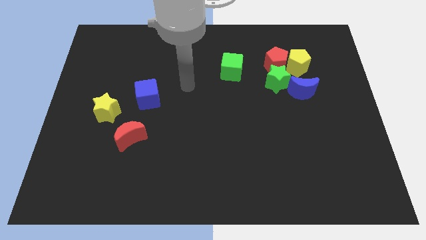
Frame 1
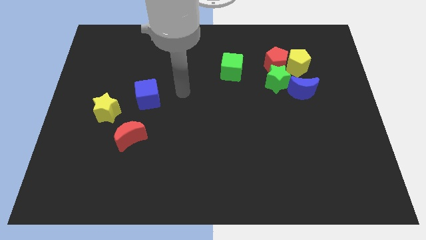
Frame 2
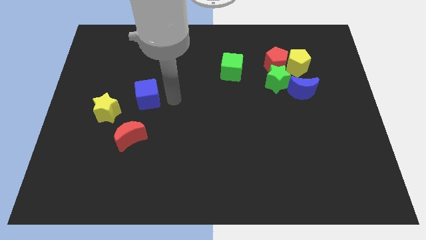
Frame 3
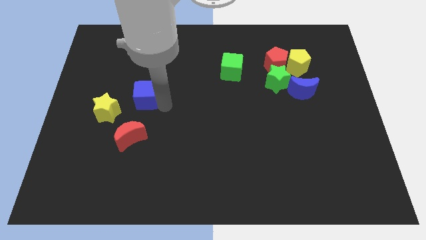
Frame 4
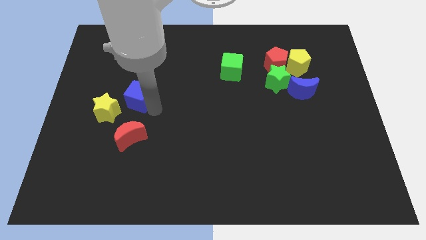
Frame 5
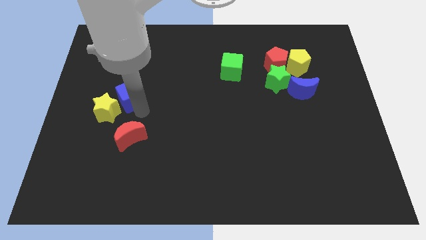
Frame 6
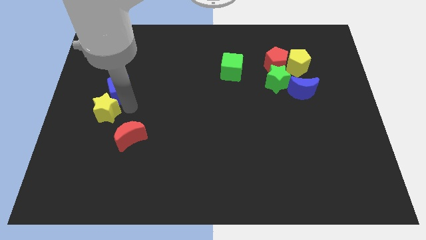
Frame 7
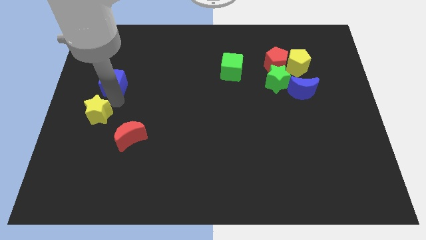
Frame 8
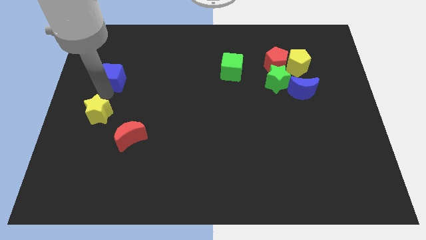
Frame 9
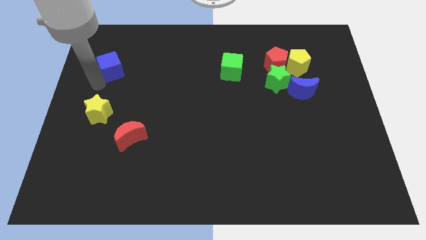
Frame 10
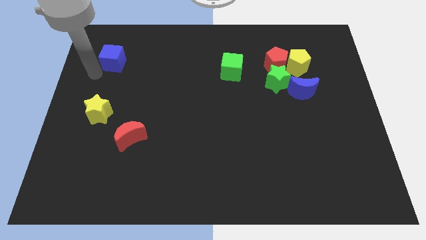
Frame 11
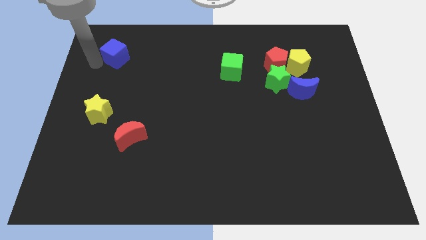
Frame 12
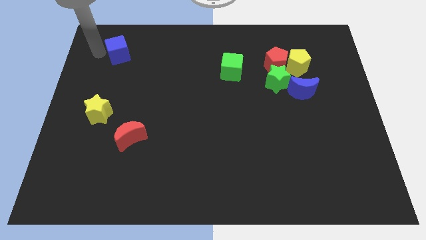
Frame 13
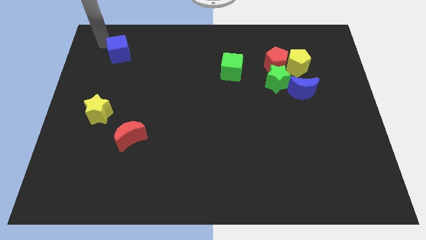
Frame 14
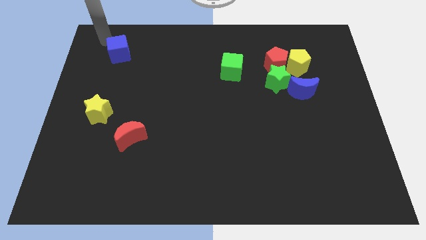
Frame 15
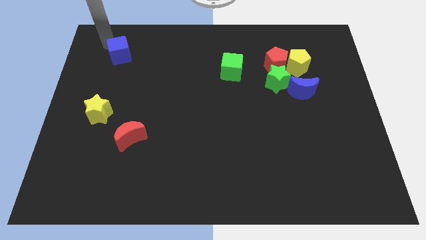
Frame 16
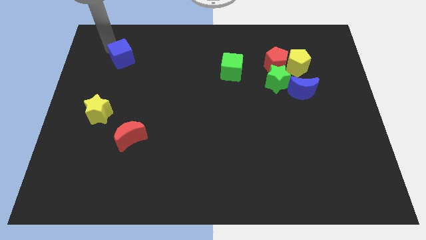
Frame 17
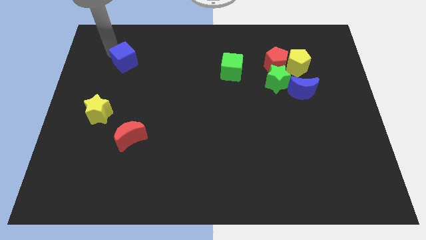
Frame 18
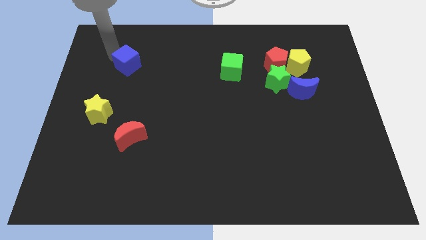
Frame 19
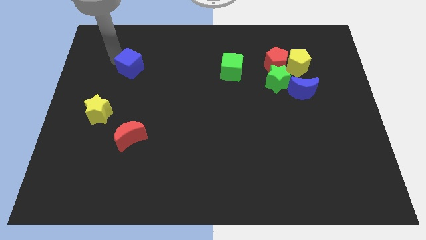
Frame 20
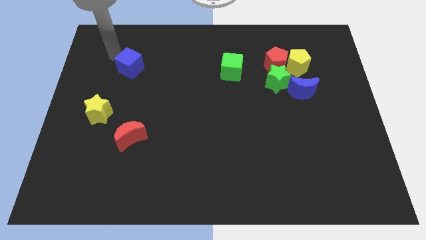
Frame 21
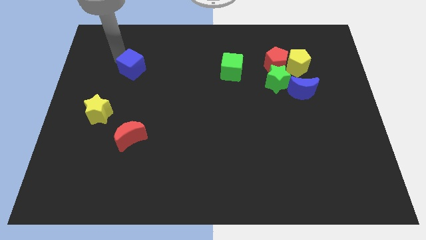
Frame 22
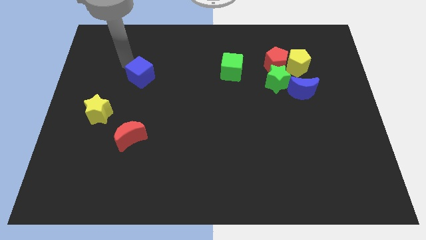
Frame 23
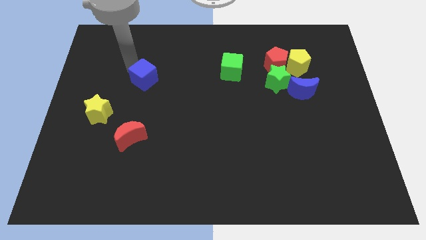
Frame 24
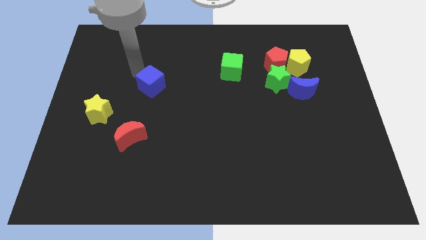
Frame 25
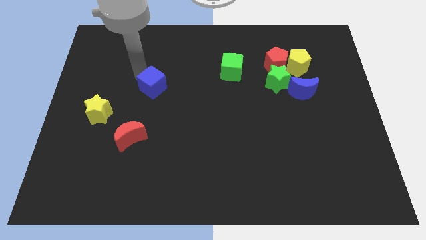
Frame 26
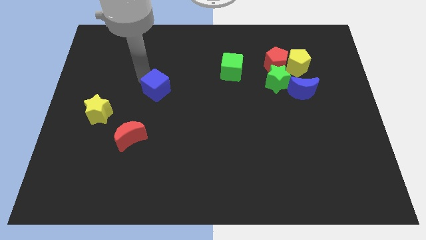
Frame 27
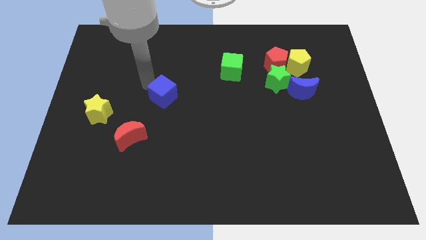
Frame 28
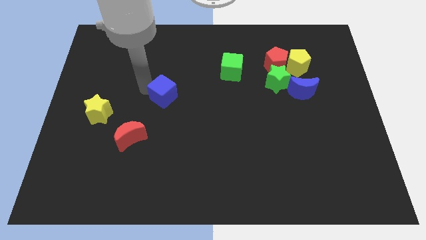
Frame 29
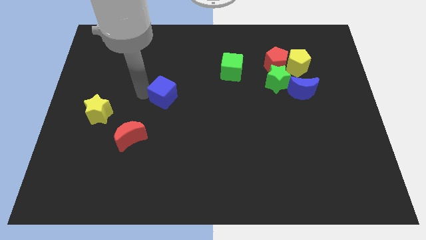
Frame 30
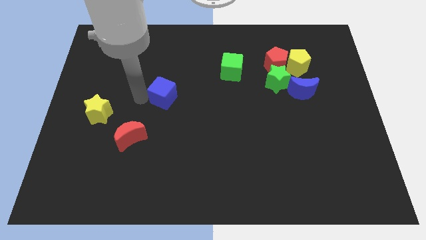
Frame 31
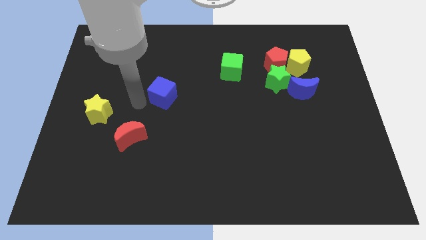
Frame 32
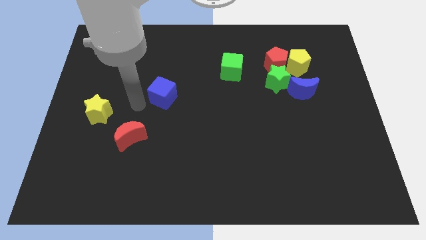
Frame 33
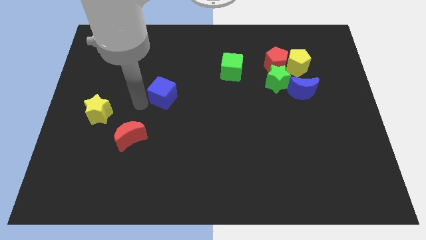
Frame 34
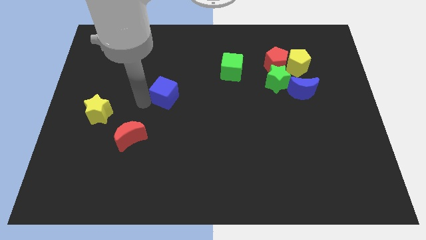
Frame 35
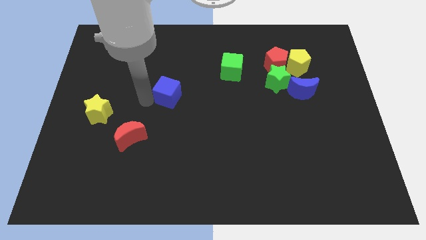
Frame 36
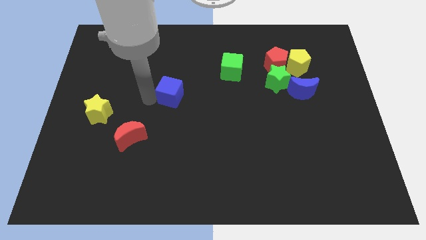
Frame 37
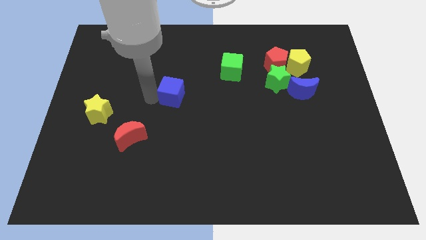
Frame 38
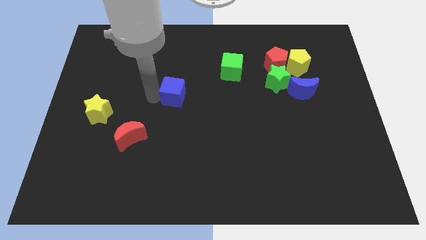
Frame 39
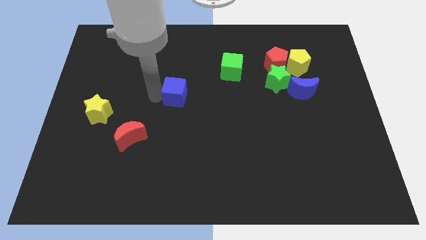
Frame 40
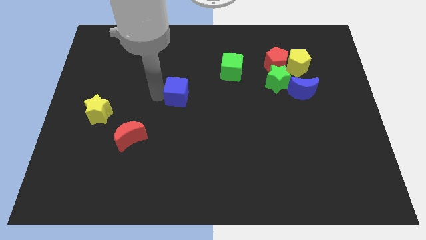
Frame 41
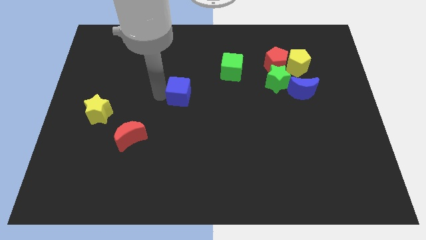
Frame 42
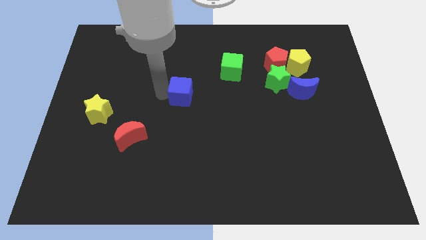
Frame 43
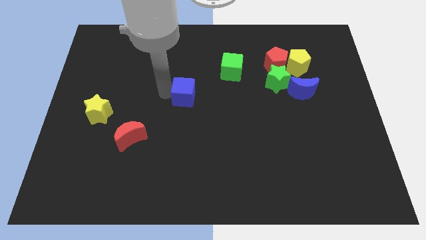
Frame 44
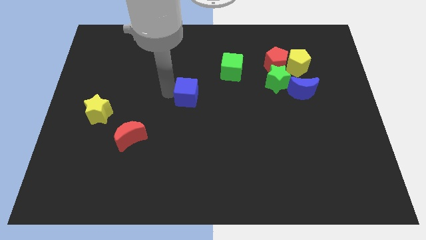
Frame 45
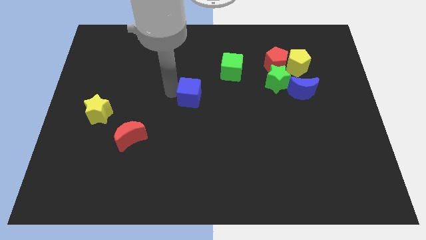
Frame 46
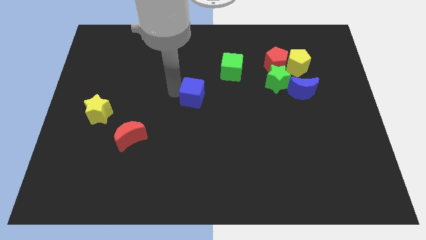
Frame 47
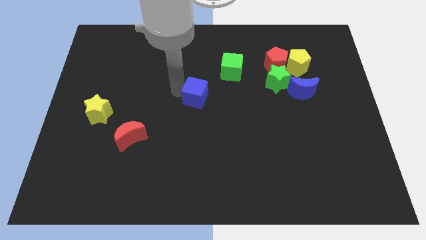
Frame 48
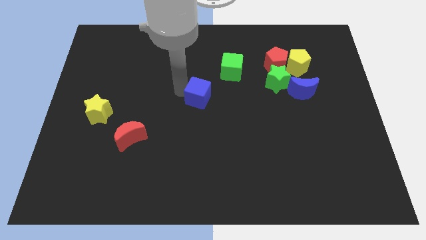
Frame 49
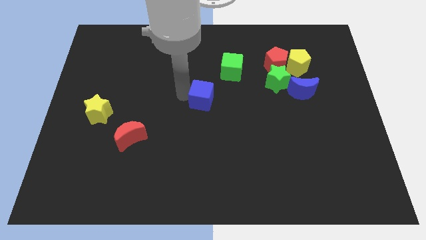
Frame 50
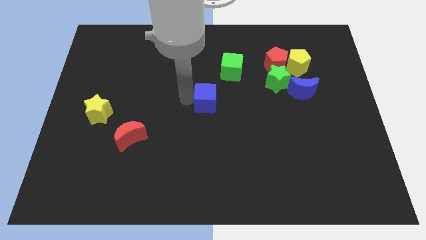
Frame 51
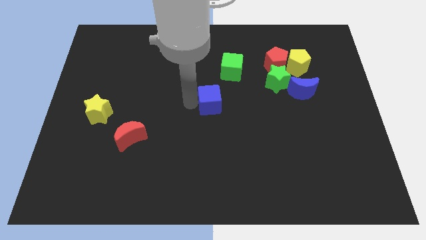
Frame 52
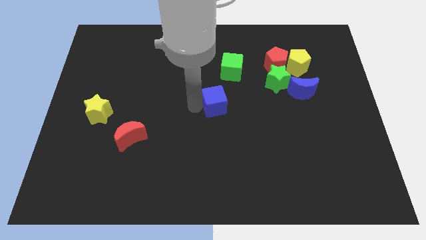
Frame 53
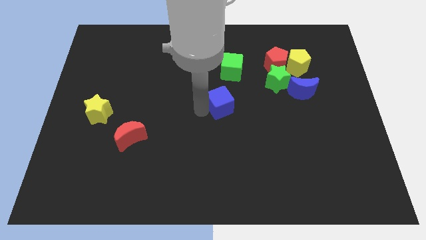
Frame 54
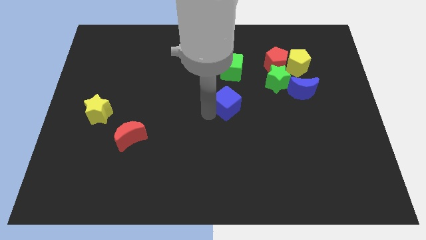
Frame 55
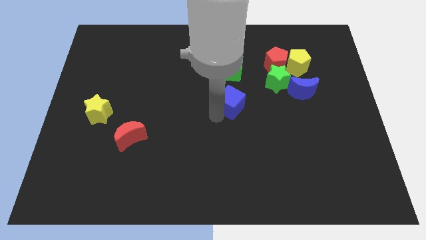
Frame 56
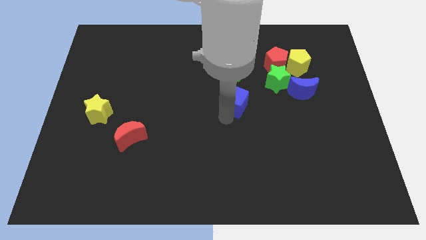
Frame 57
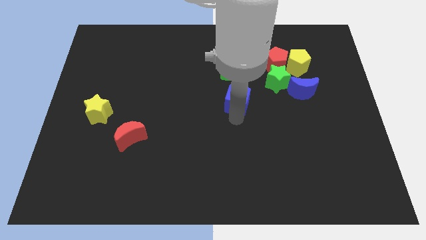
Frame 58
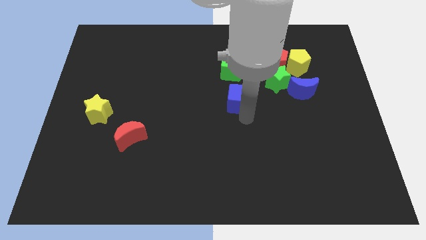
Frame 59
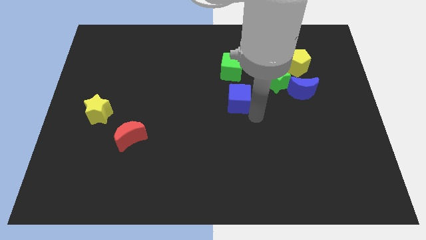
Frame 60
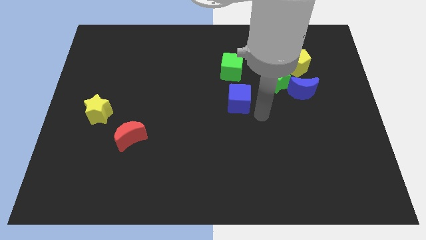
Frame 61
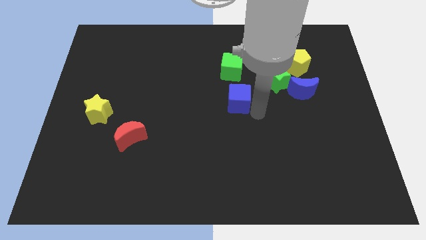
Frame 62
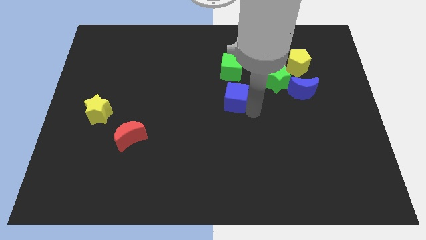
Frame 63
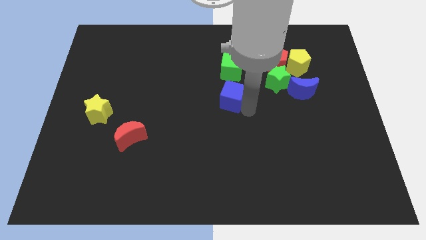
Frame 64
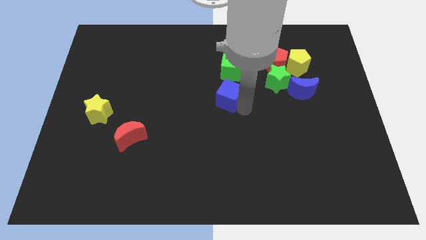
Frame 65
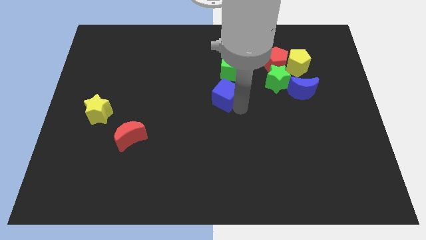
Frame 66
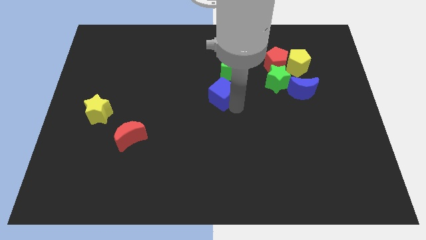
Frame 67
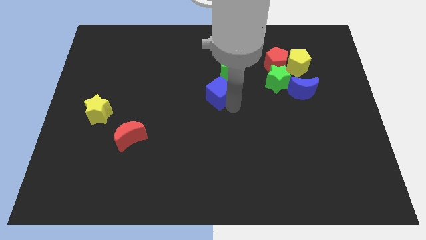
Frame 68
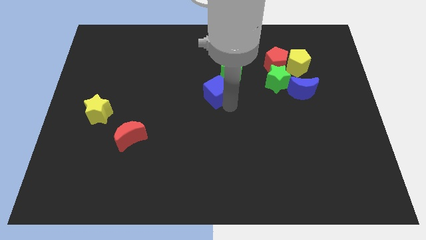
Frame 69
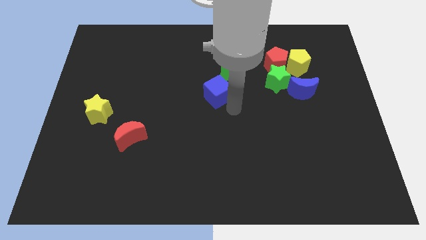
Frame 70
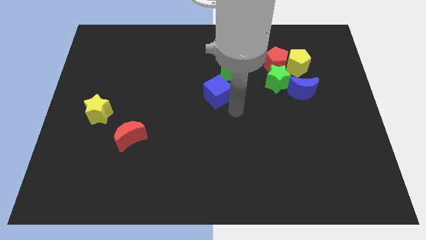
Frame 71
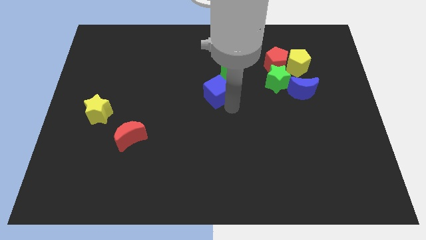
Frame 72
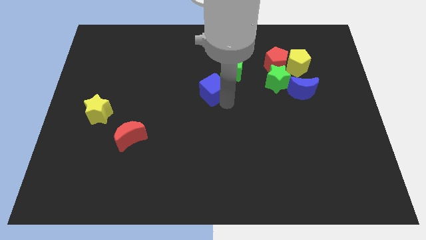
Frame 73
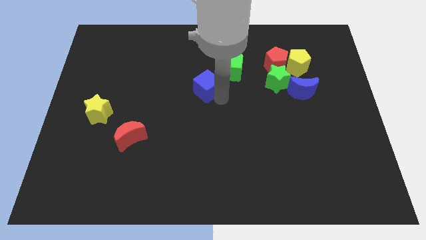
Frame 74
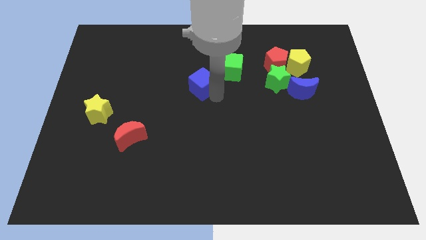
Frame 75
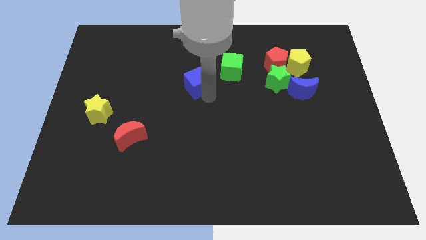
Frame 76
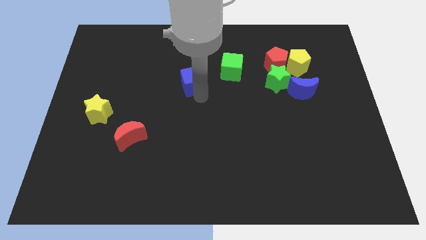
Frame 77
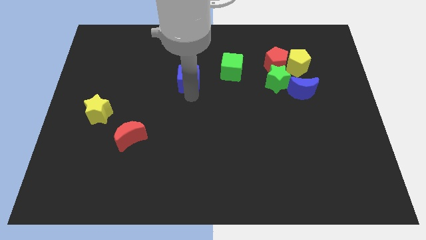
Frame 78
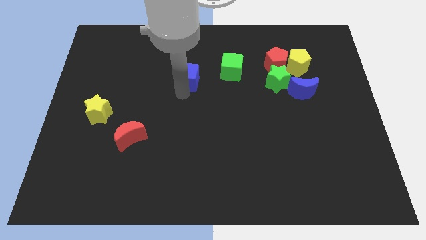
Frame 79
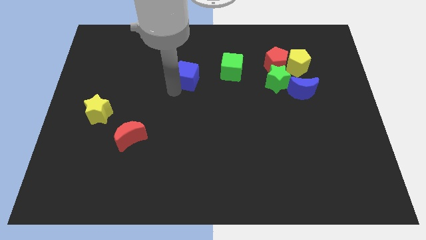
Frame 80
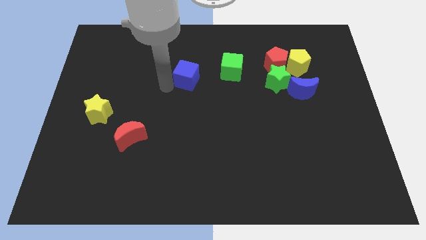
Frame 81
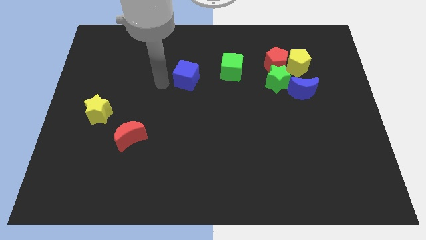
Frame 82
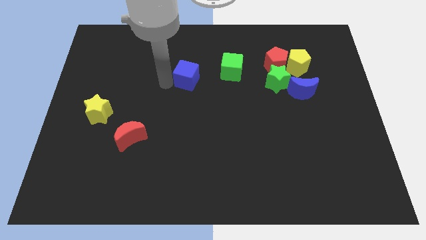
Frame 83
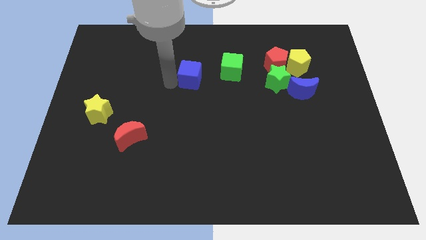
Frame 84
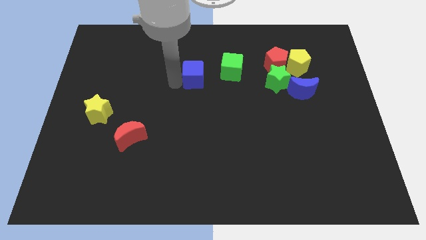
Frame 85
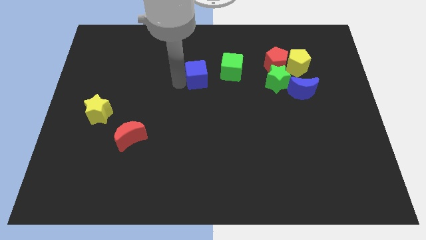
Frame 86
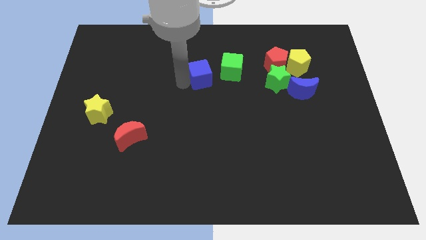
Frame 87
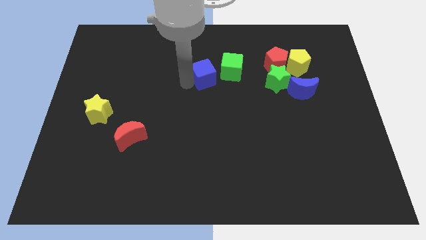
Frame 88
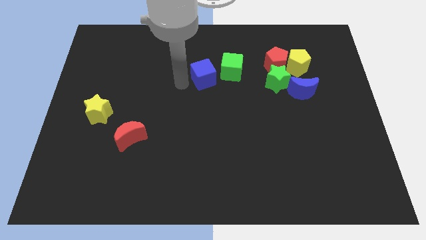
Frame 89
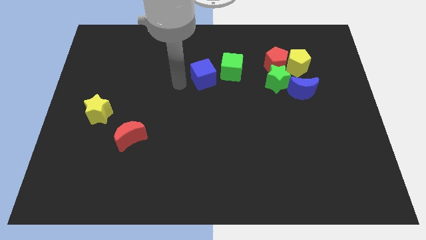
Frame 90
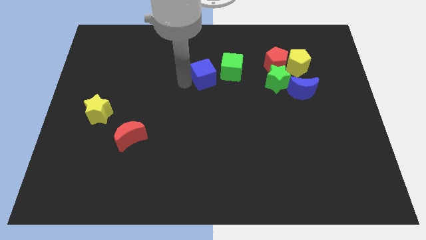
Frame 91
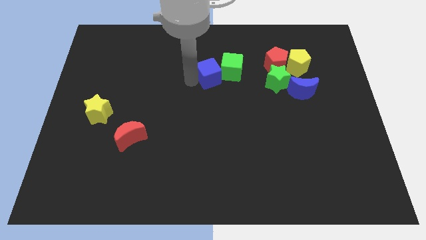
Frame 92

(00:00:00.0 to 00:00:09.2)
move the blue cube close to the green cube
